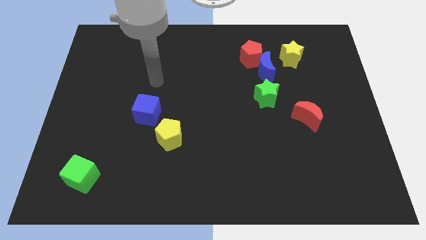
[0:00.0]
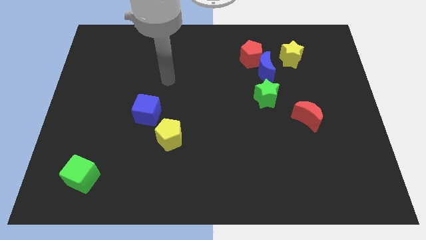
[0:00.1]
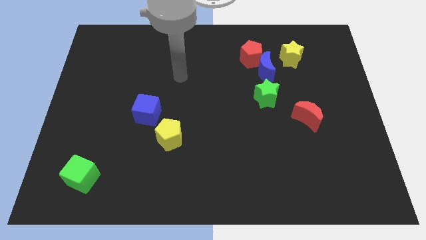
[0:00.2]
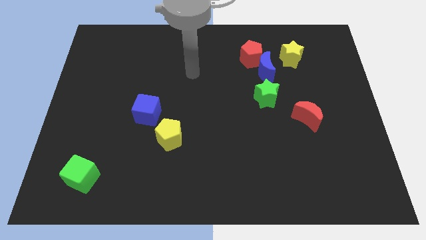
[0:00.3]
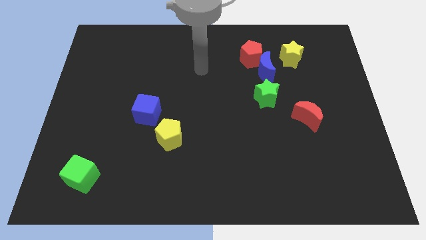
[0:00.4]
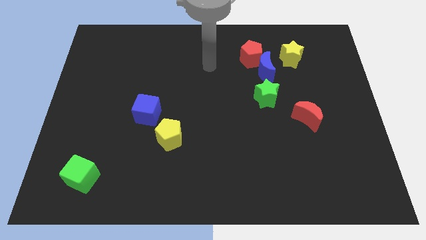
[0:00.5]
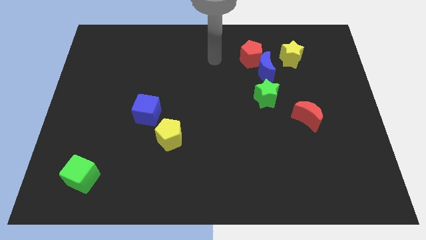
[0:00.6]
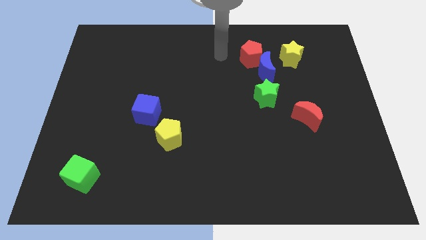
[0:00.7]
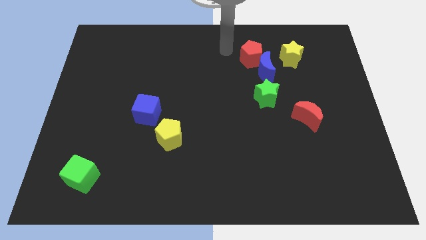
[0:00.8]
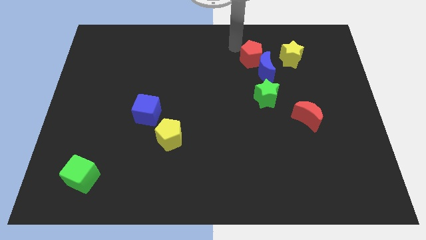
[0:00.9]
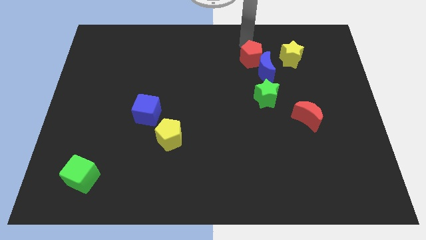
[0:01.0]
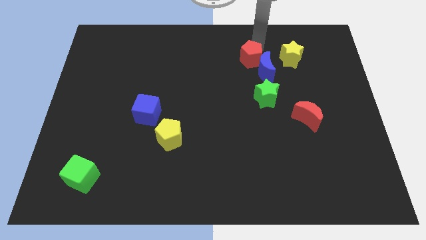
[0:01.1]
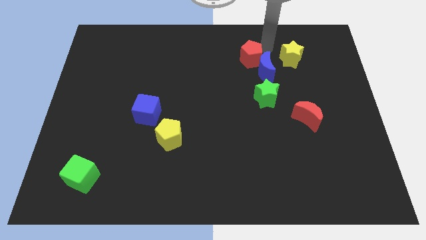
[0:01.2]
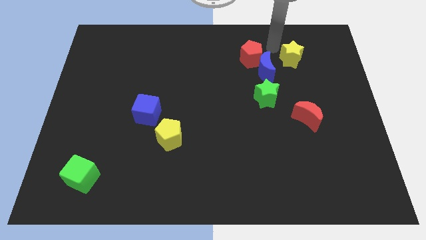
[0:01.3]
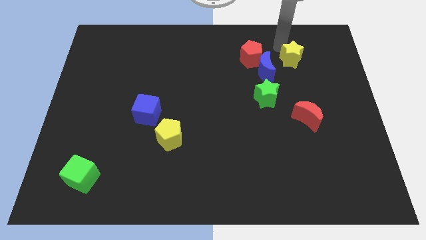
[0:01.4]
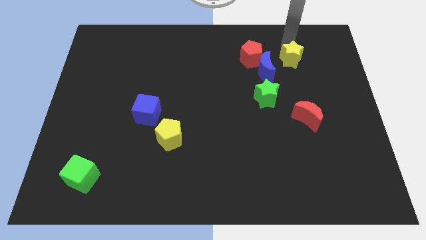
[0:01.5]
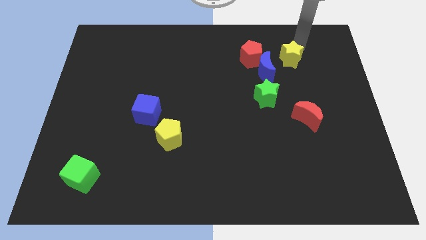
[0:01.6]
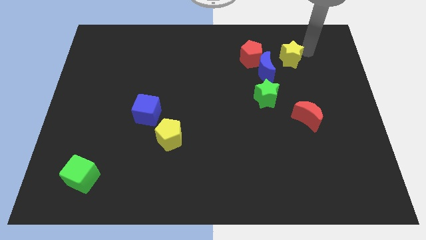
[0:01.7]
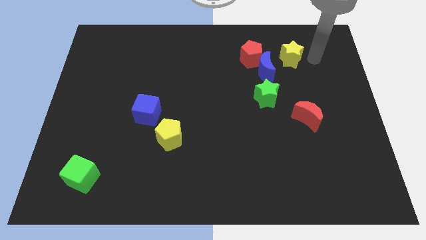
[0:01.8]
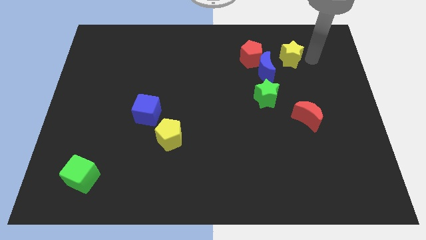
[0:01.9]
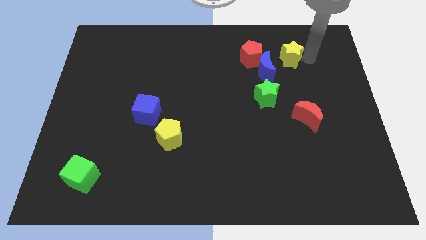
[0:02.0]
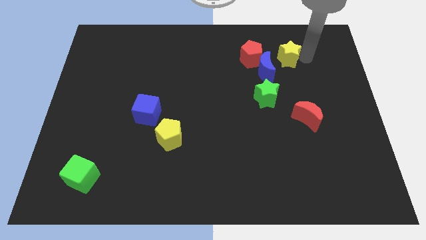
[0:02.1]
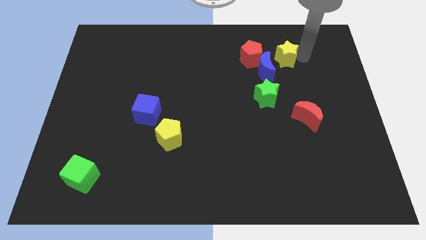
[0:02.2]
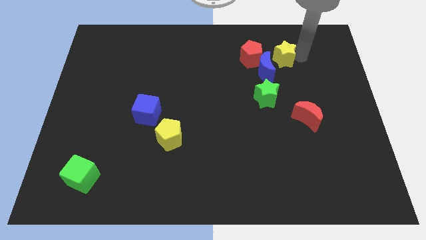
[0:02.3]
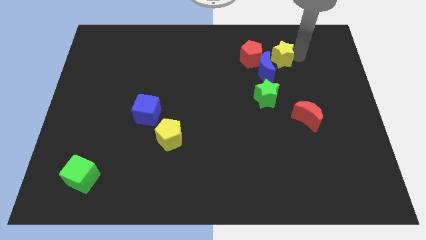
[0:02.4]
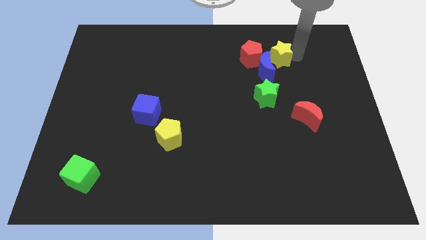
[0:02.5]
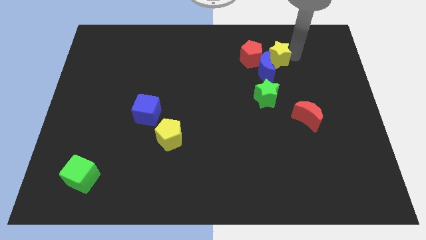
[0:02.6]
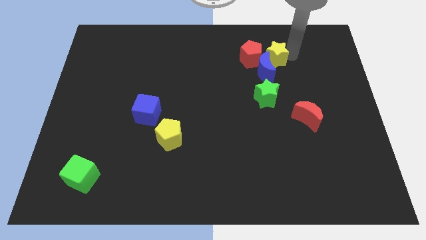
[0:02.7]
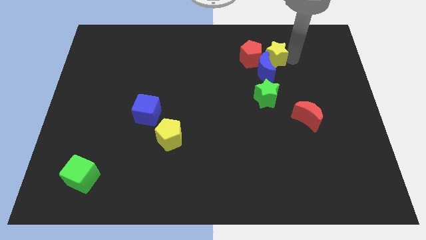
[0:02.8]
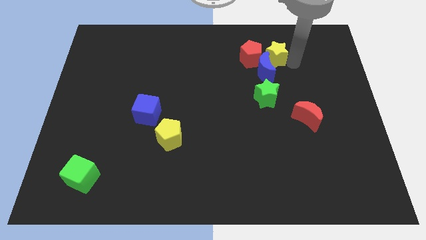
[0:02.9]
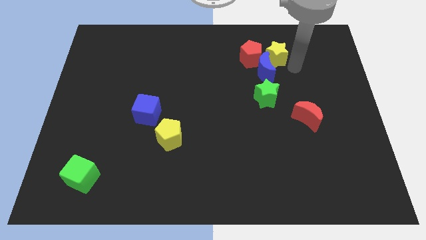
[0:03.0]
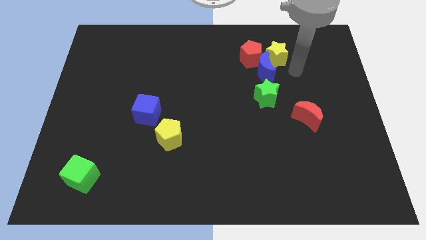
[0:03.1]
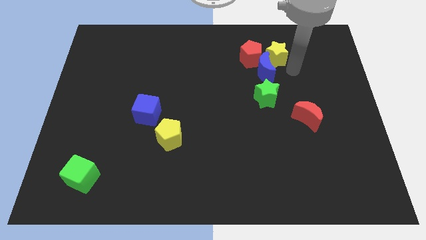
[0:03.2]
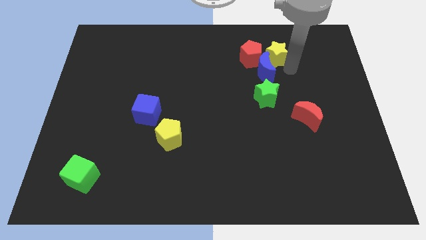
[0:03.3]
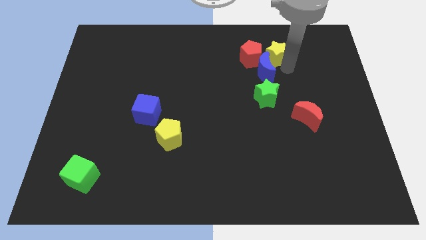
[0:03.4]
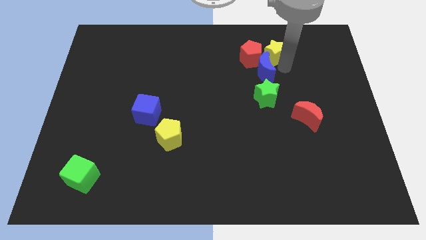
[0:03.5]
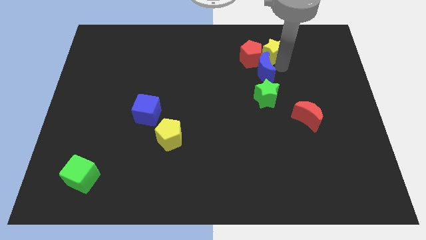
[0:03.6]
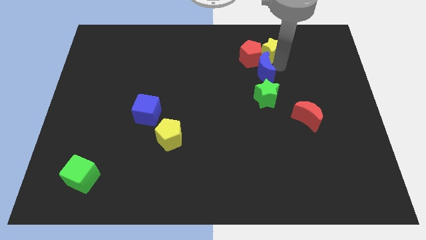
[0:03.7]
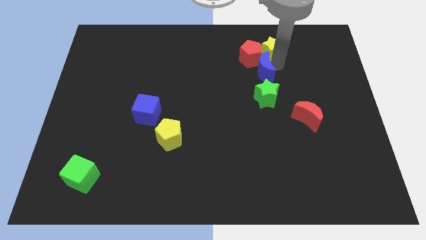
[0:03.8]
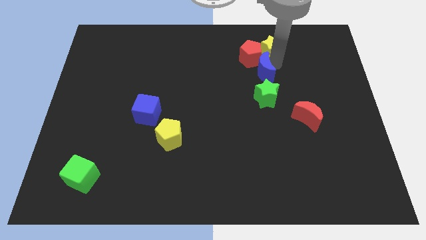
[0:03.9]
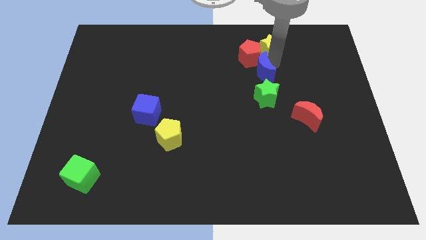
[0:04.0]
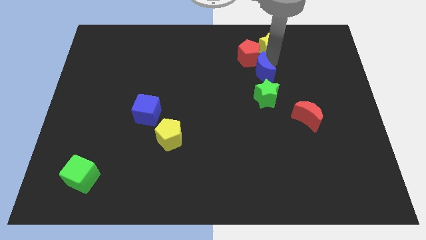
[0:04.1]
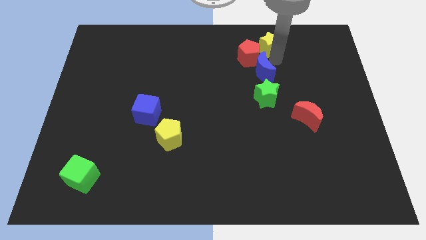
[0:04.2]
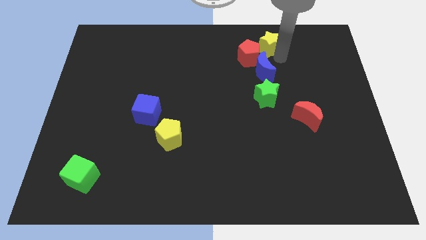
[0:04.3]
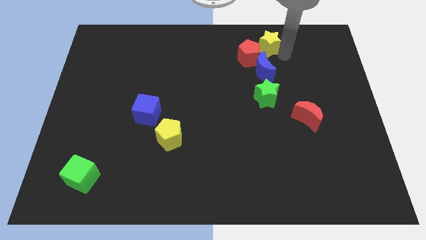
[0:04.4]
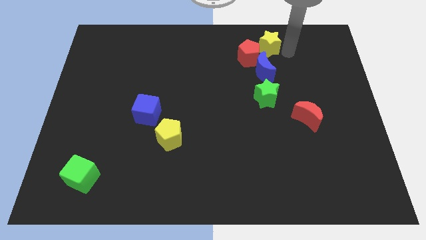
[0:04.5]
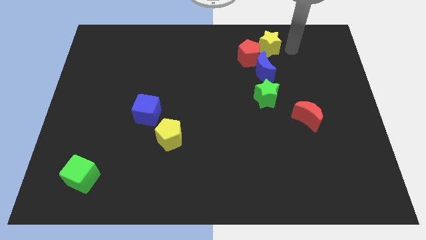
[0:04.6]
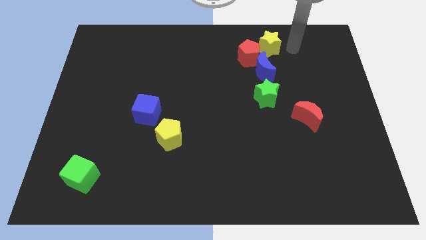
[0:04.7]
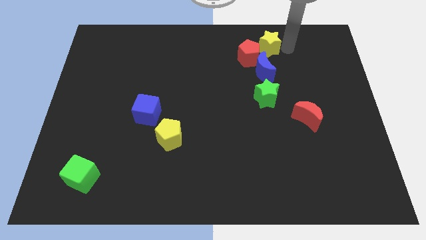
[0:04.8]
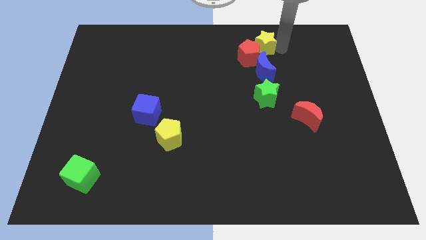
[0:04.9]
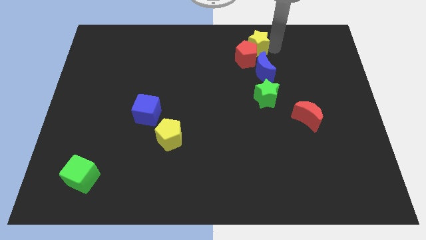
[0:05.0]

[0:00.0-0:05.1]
push the yellow star a little bit to the left

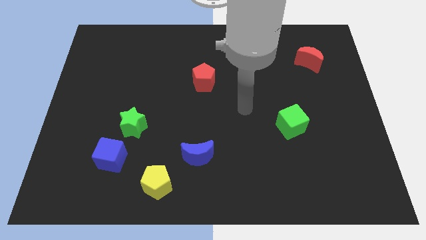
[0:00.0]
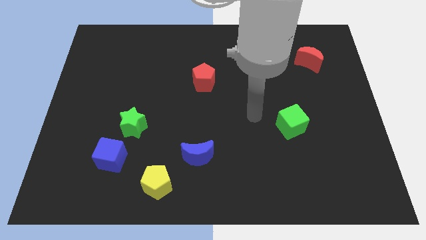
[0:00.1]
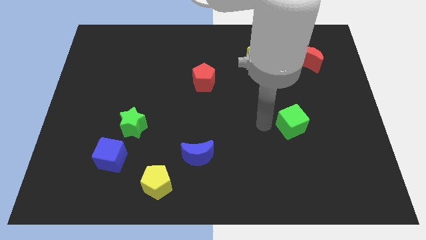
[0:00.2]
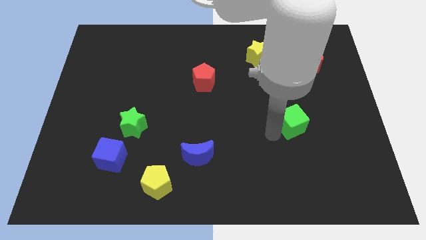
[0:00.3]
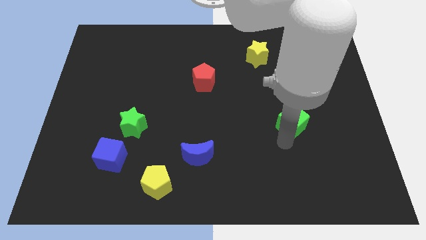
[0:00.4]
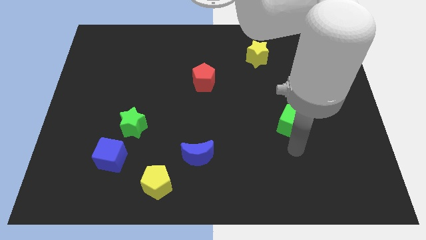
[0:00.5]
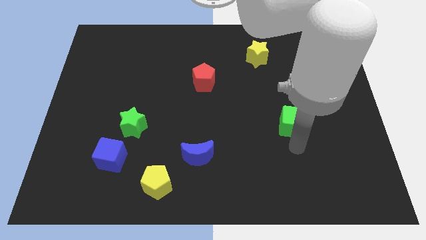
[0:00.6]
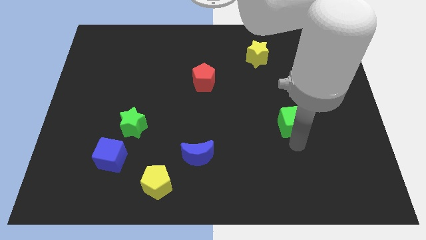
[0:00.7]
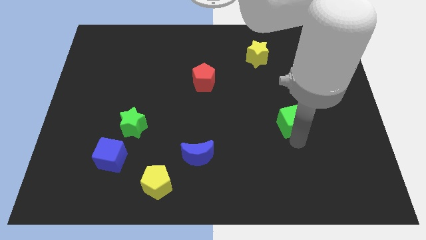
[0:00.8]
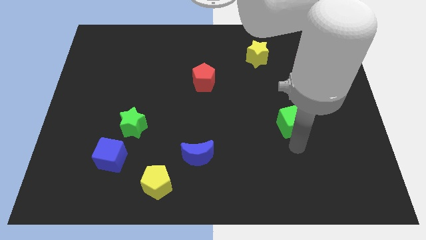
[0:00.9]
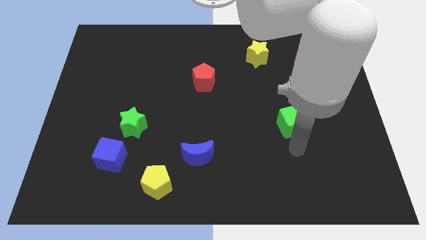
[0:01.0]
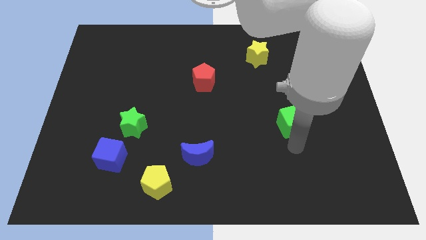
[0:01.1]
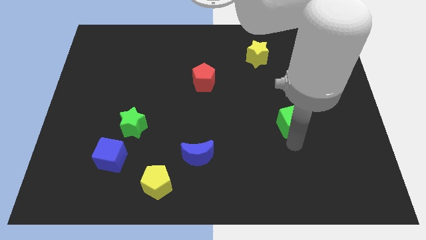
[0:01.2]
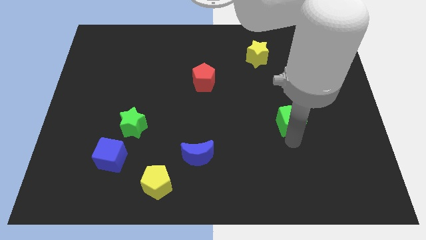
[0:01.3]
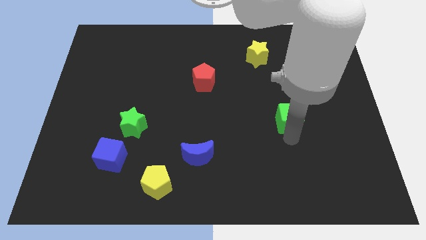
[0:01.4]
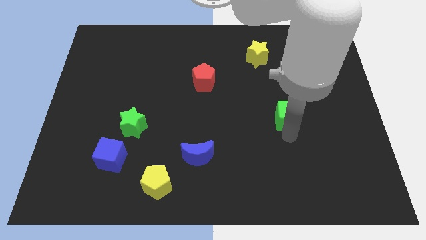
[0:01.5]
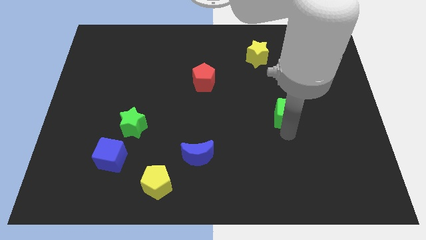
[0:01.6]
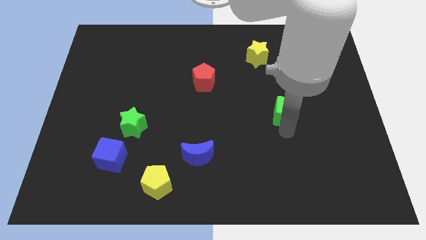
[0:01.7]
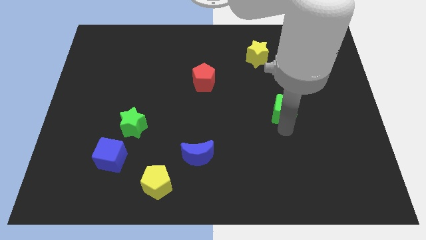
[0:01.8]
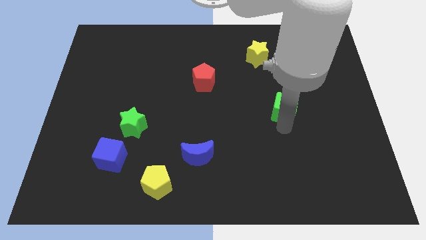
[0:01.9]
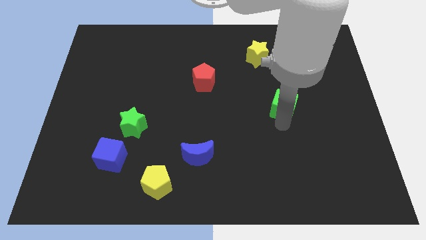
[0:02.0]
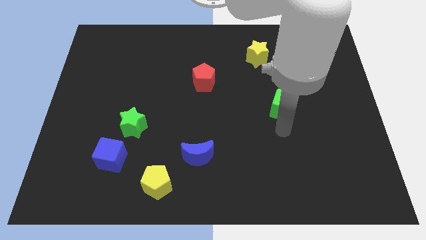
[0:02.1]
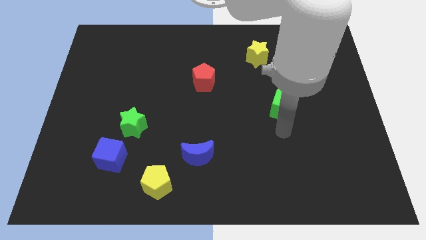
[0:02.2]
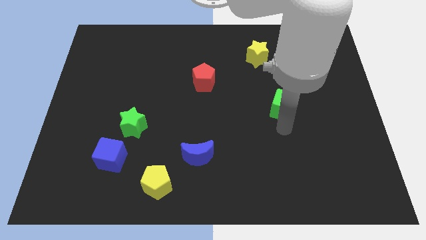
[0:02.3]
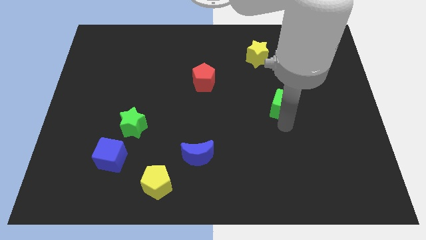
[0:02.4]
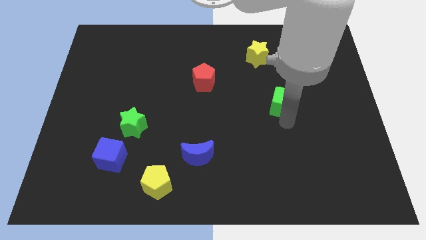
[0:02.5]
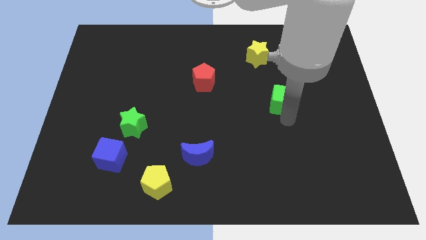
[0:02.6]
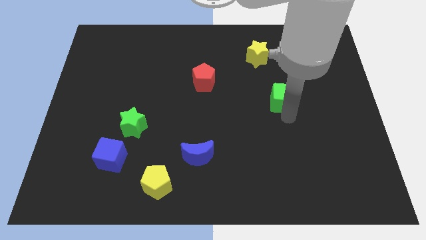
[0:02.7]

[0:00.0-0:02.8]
slide the green cube somewhat up
